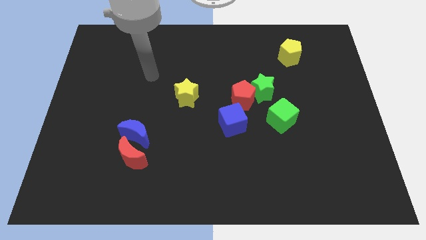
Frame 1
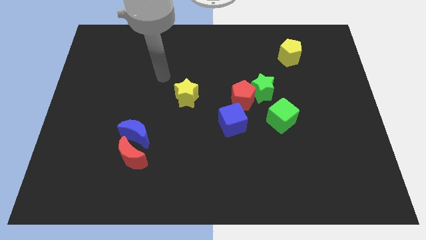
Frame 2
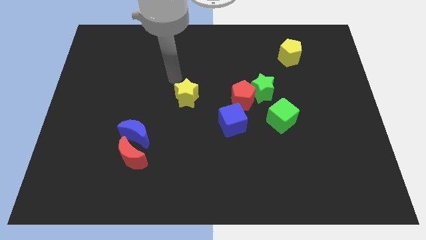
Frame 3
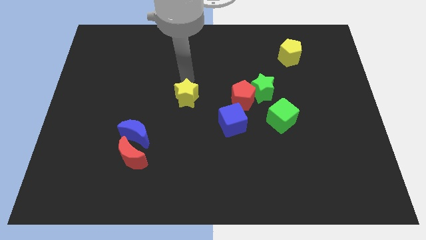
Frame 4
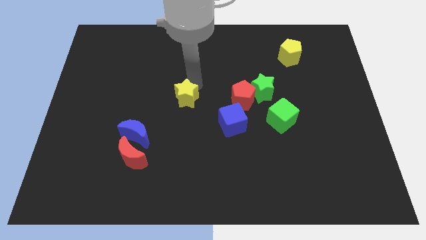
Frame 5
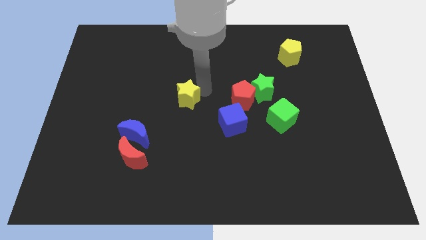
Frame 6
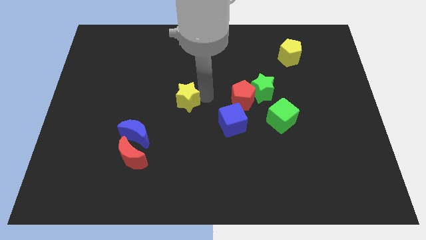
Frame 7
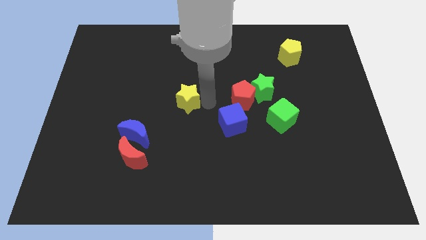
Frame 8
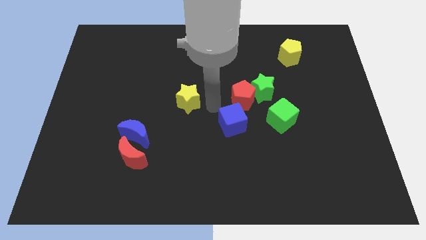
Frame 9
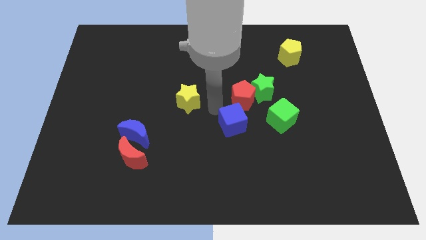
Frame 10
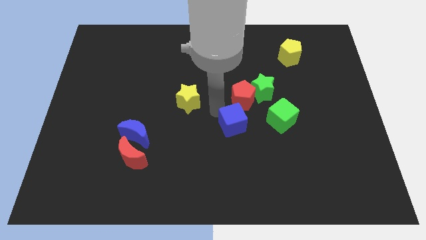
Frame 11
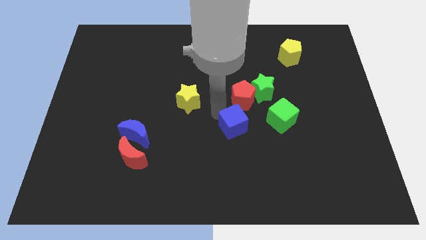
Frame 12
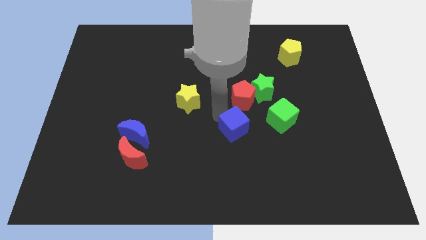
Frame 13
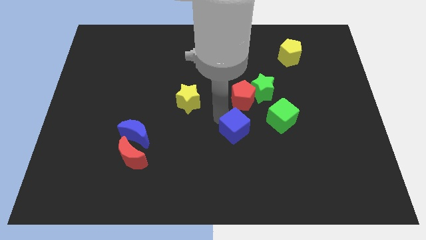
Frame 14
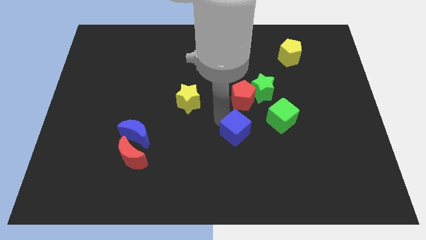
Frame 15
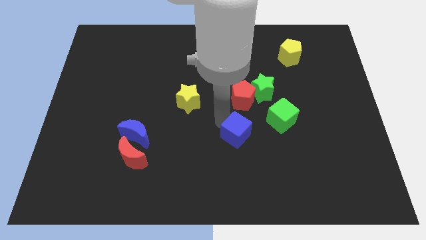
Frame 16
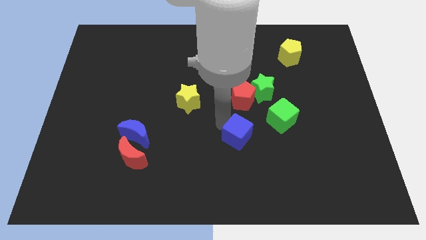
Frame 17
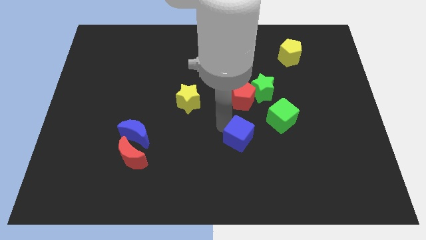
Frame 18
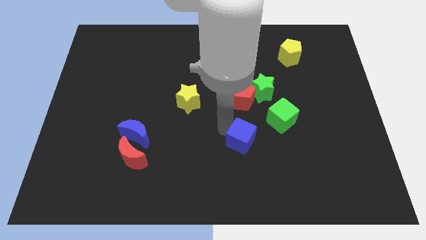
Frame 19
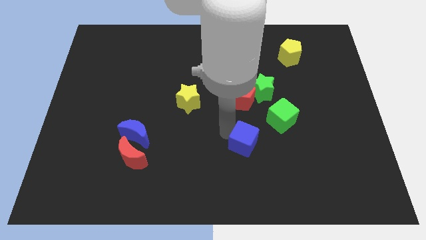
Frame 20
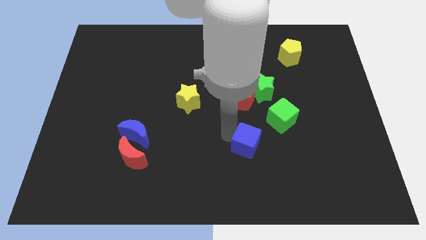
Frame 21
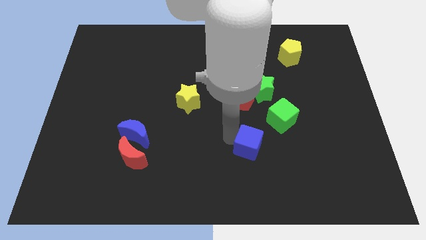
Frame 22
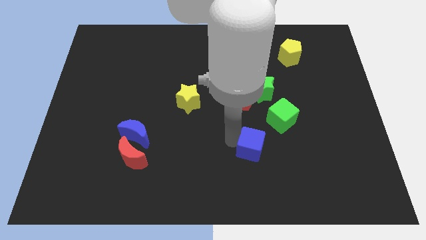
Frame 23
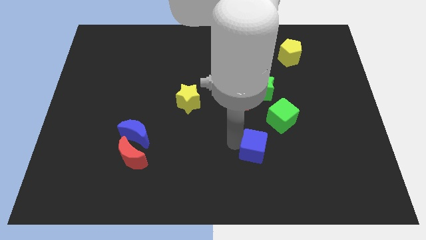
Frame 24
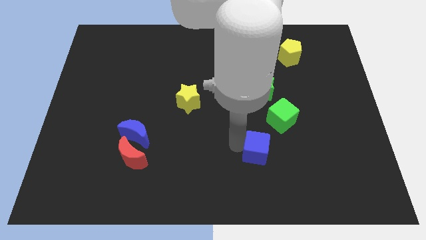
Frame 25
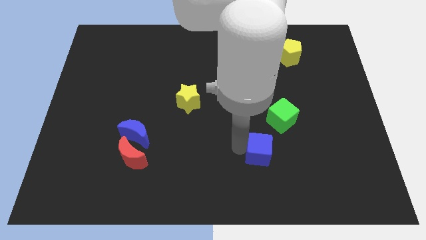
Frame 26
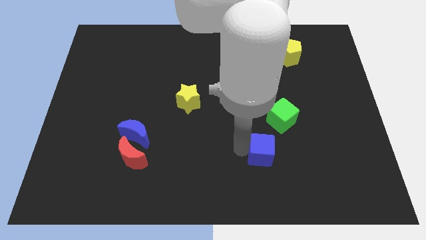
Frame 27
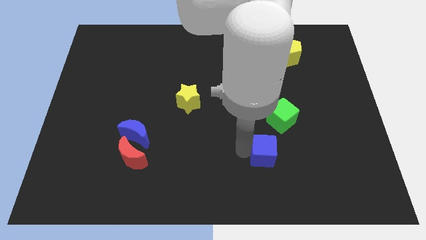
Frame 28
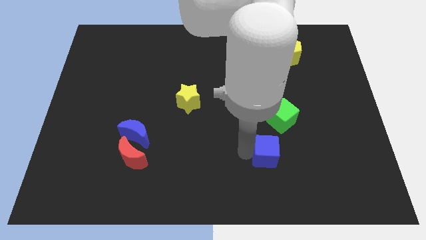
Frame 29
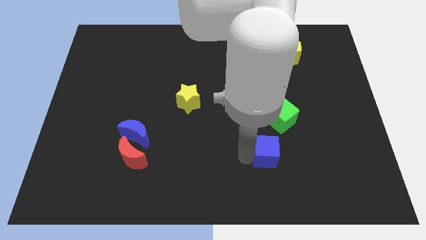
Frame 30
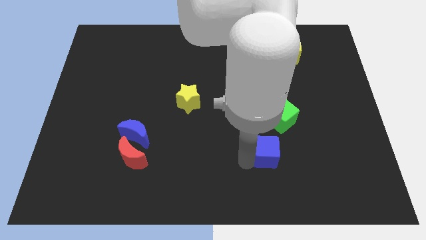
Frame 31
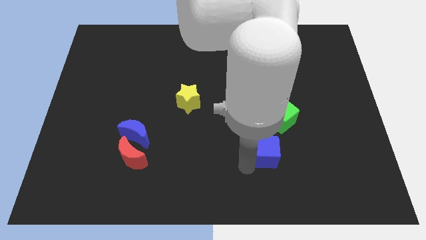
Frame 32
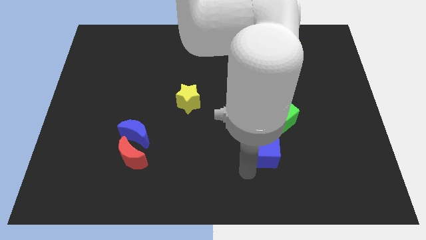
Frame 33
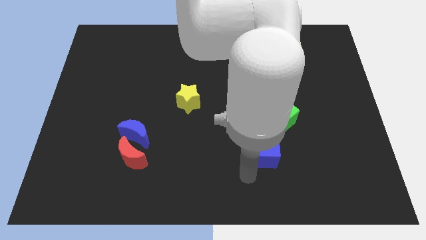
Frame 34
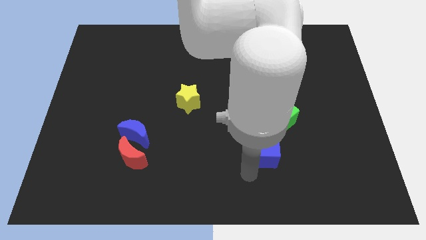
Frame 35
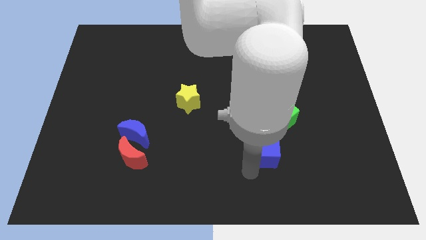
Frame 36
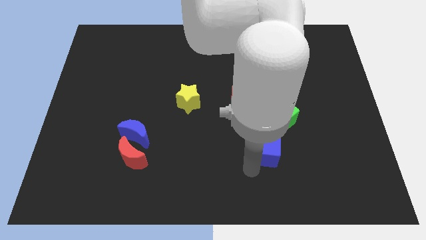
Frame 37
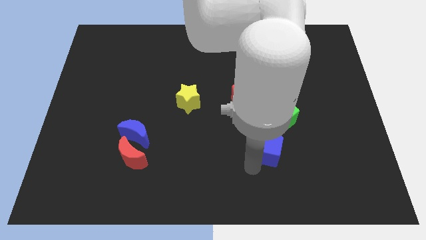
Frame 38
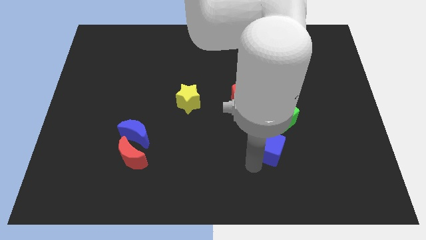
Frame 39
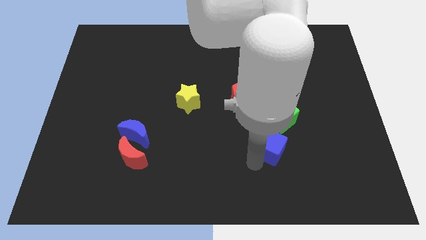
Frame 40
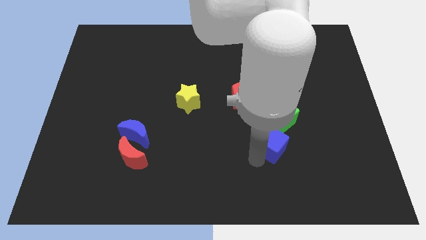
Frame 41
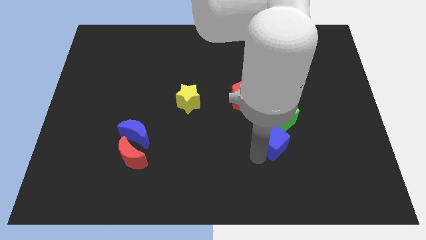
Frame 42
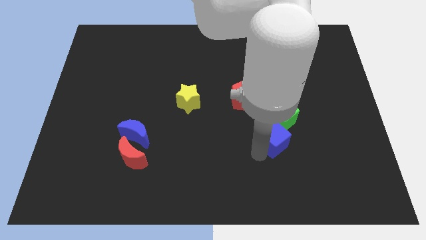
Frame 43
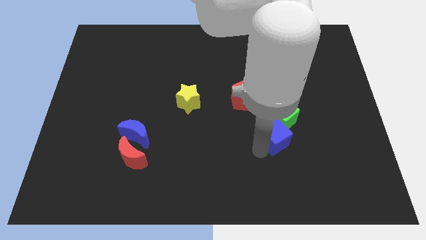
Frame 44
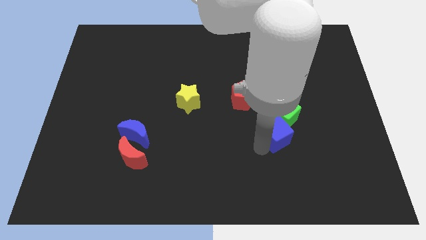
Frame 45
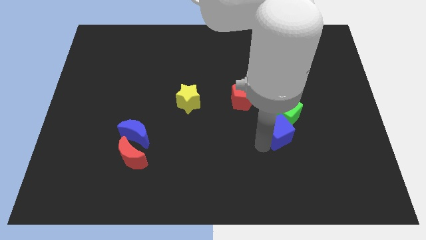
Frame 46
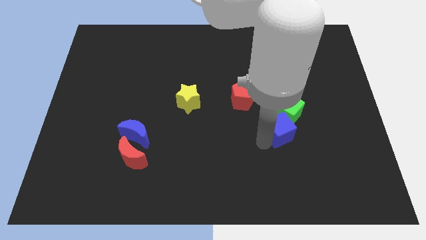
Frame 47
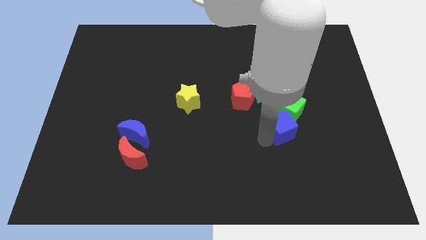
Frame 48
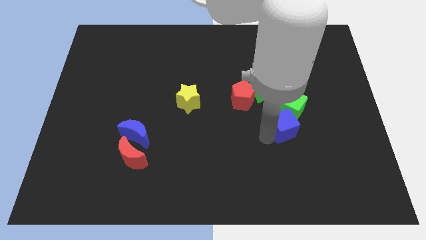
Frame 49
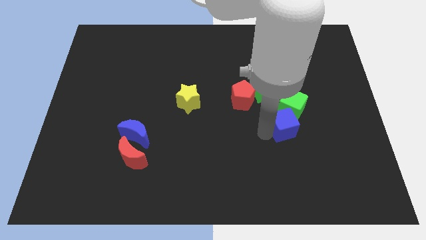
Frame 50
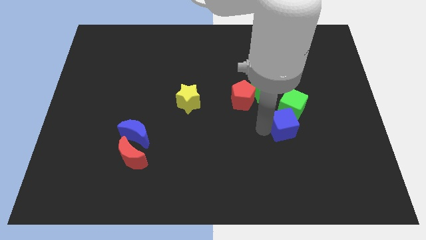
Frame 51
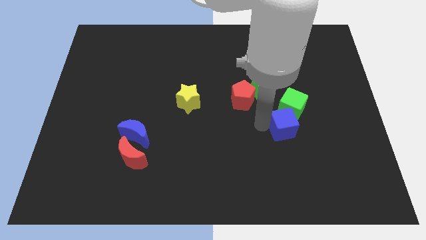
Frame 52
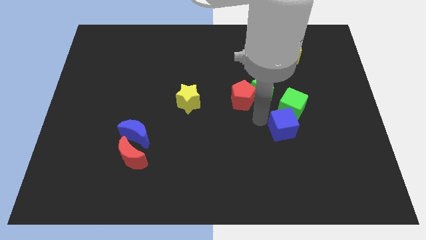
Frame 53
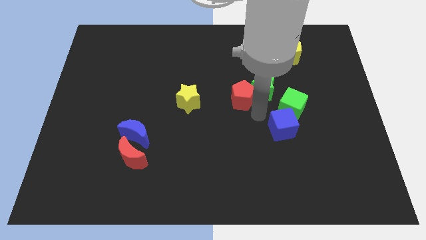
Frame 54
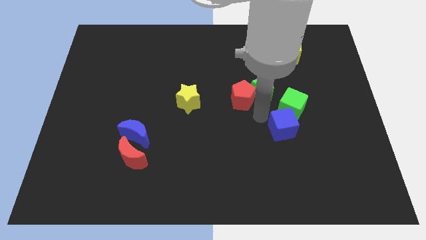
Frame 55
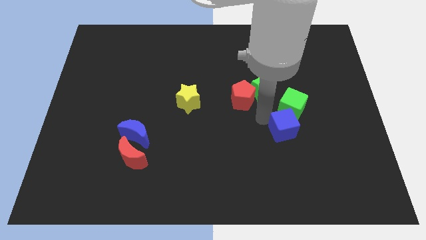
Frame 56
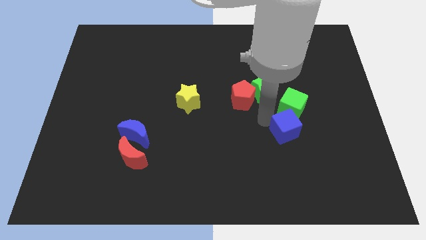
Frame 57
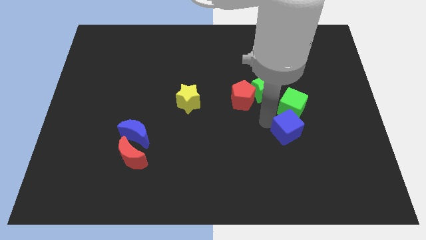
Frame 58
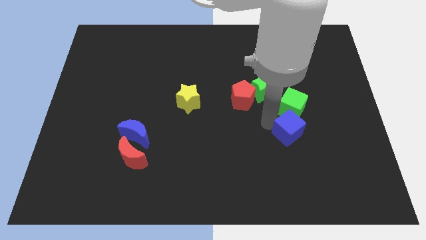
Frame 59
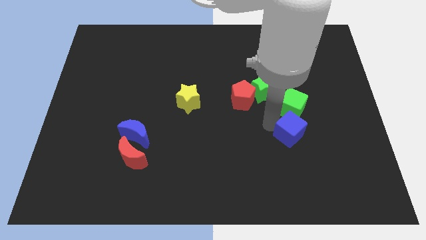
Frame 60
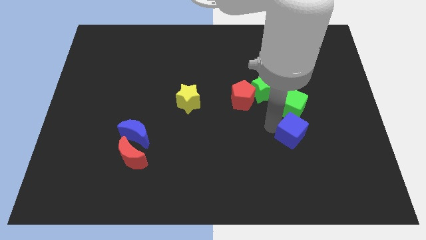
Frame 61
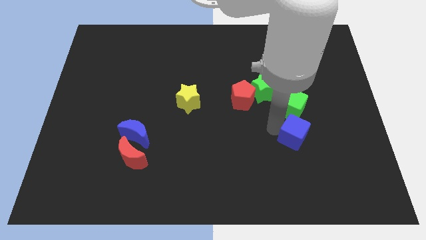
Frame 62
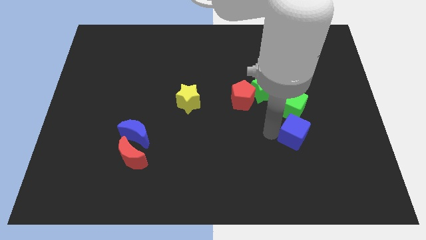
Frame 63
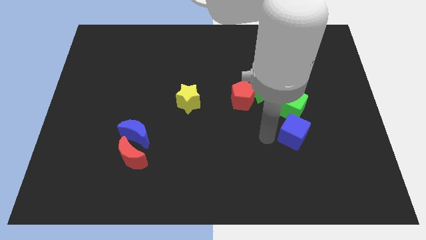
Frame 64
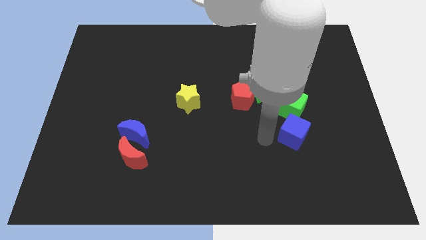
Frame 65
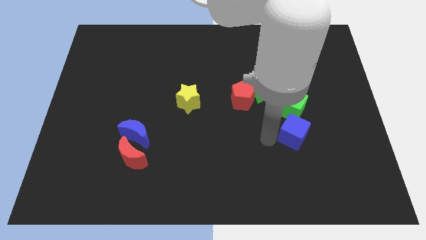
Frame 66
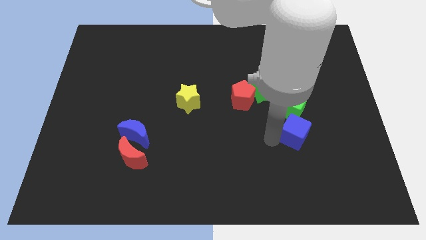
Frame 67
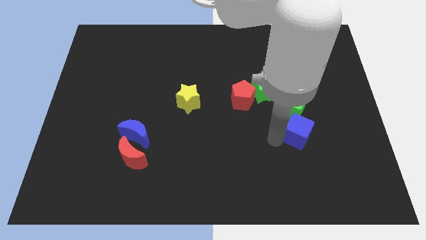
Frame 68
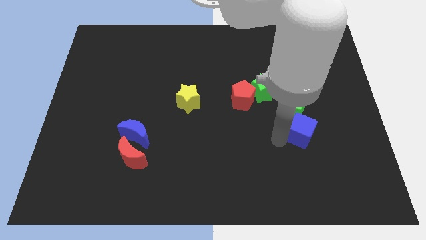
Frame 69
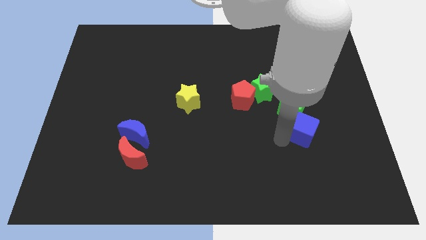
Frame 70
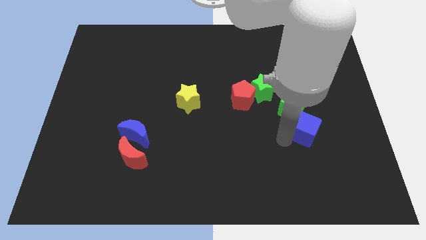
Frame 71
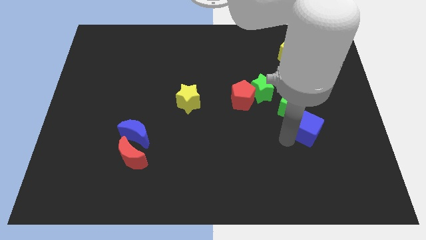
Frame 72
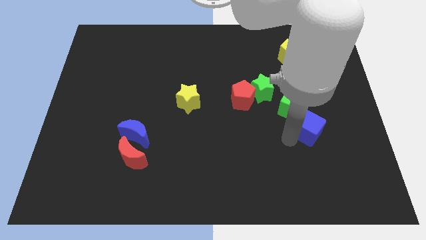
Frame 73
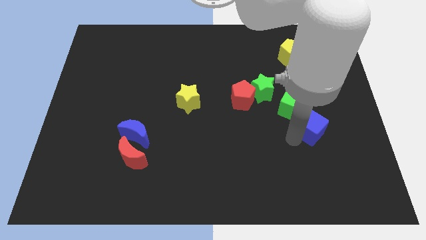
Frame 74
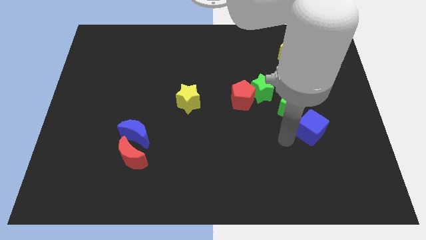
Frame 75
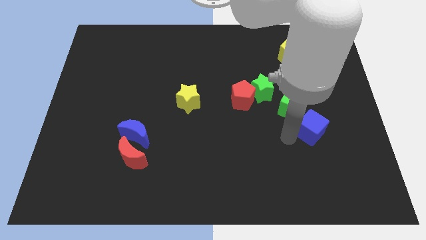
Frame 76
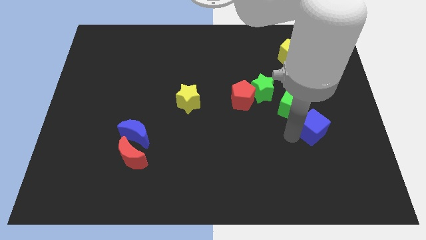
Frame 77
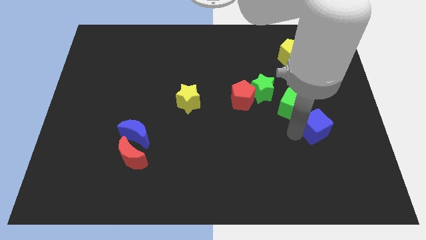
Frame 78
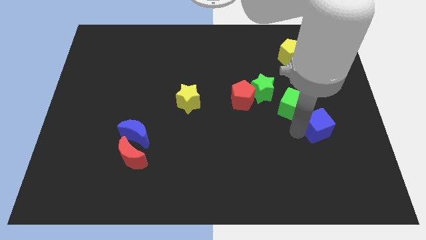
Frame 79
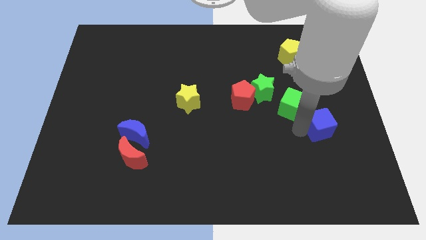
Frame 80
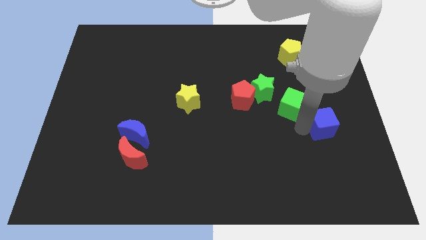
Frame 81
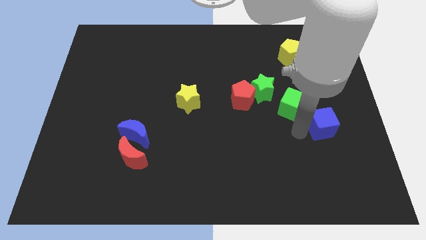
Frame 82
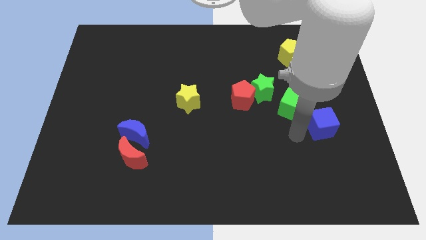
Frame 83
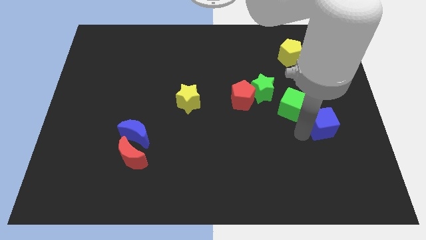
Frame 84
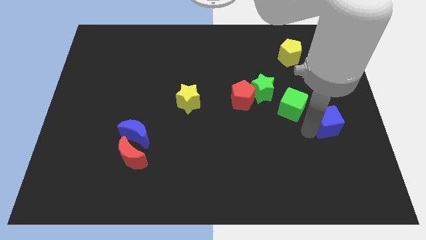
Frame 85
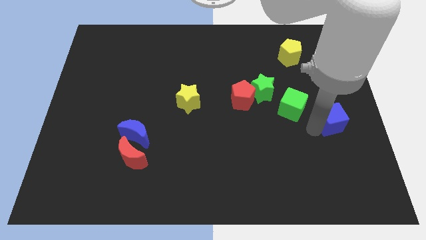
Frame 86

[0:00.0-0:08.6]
put the blue cube to the center right
